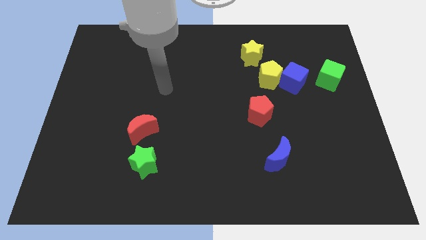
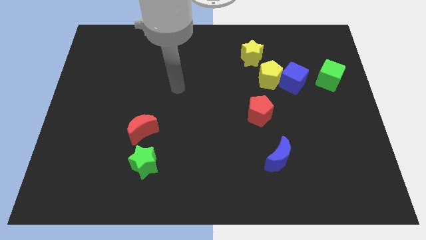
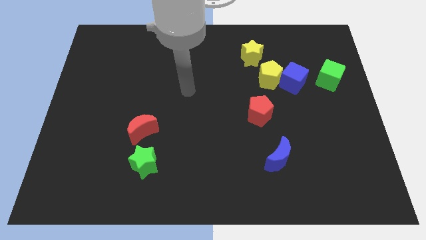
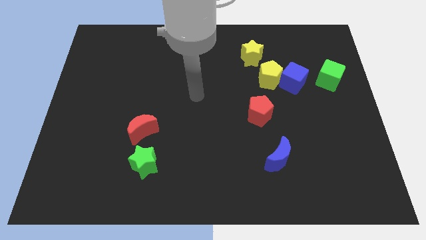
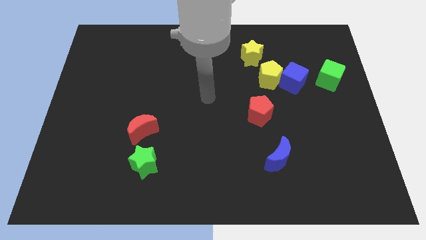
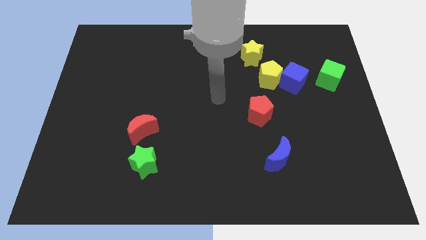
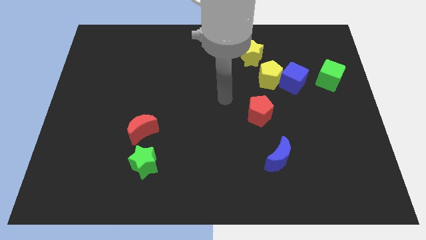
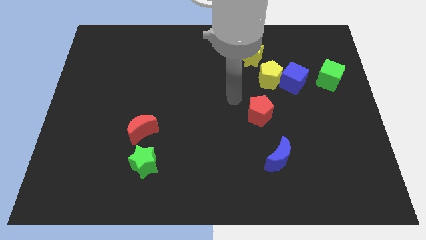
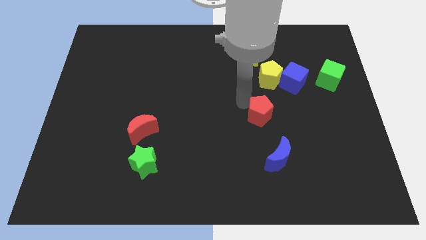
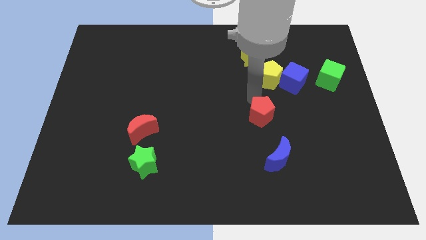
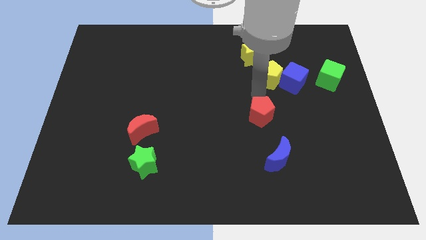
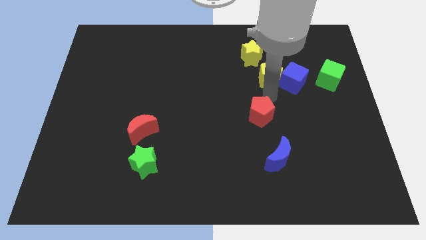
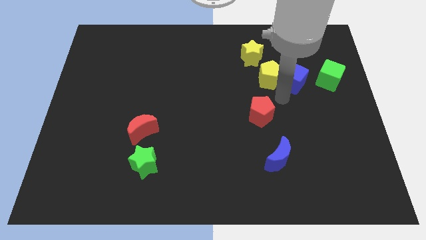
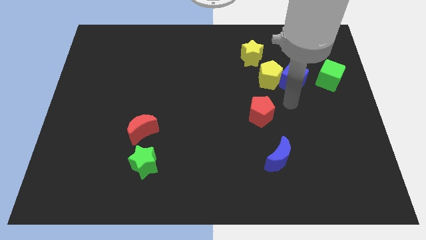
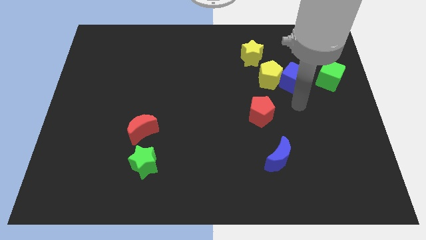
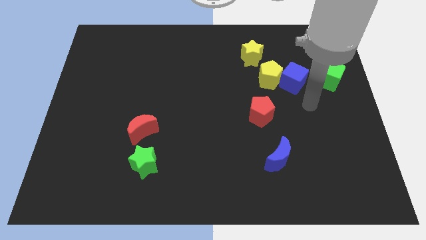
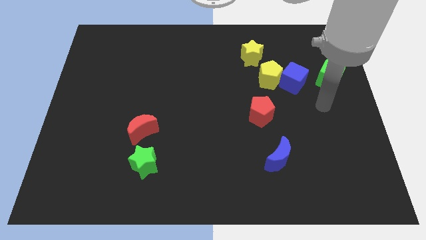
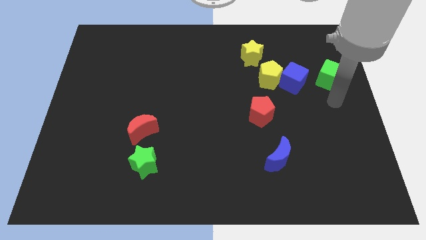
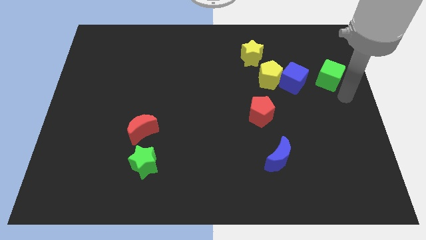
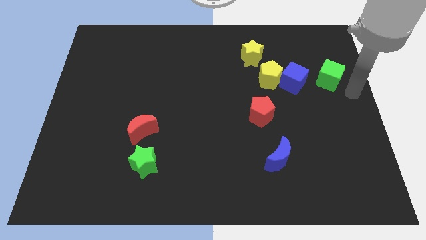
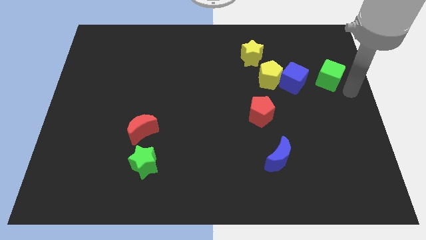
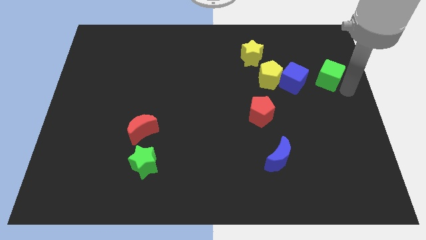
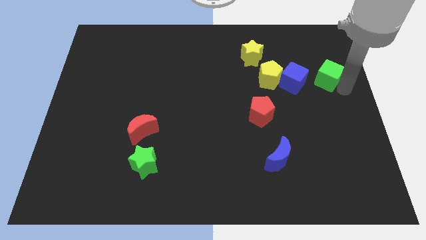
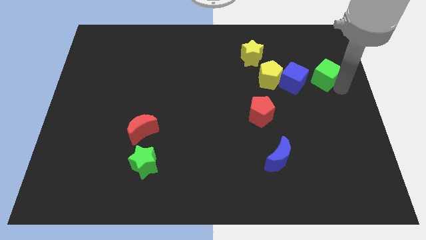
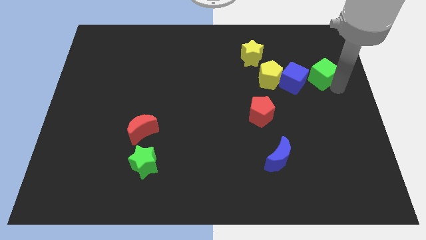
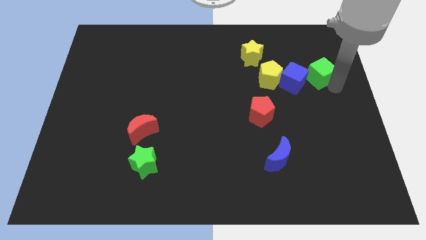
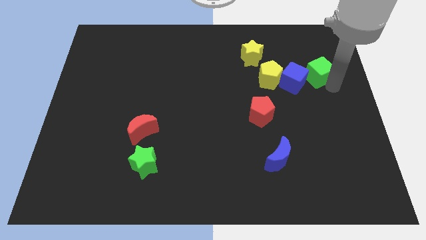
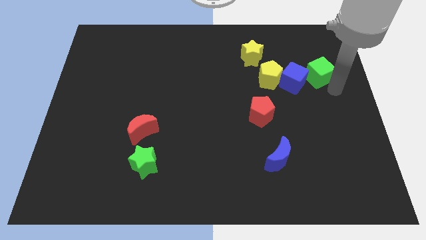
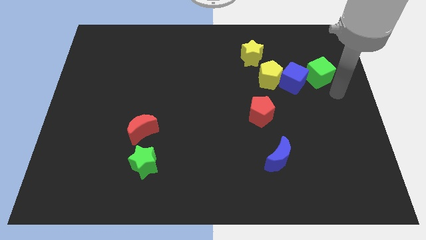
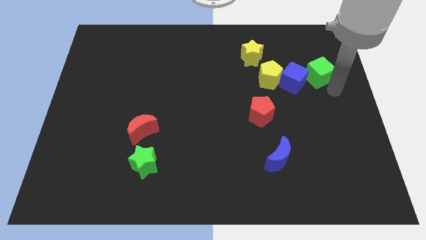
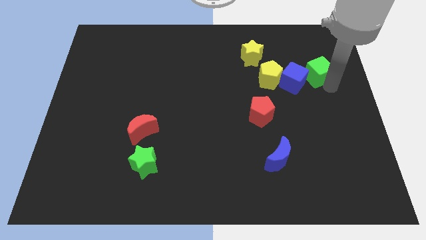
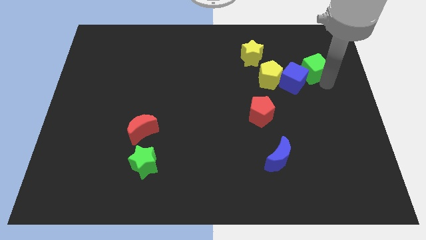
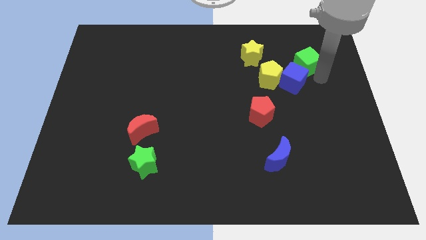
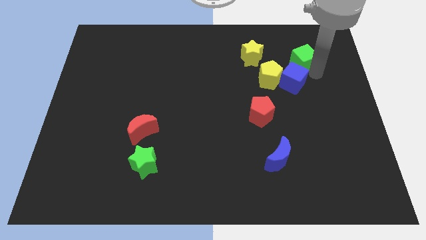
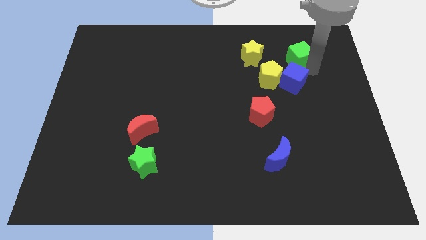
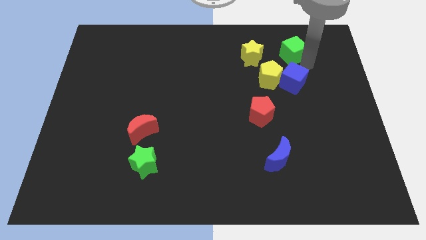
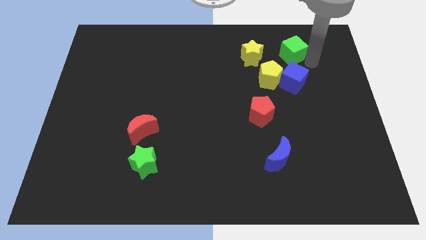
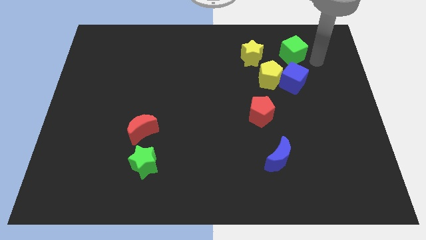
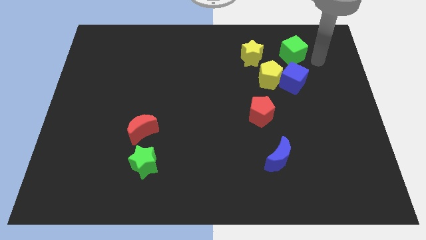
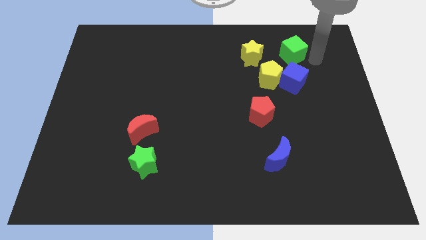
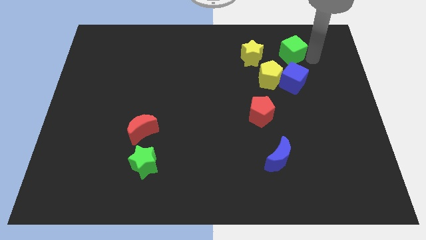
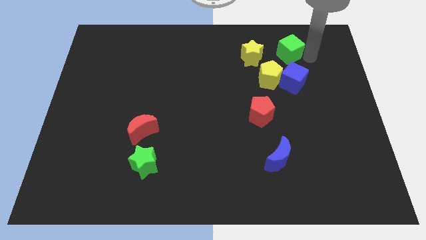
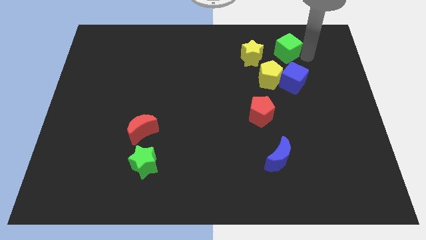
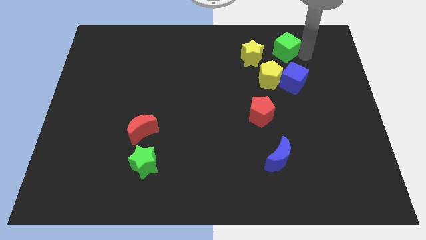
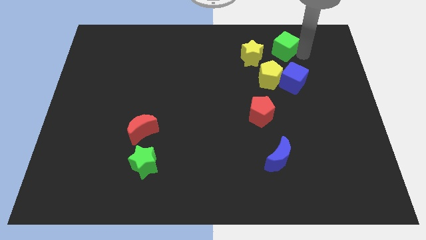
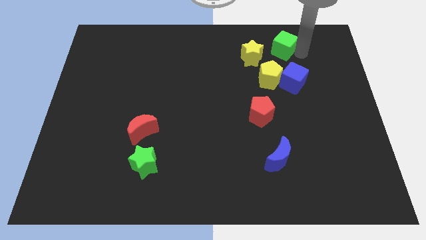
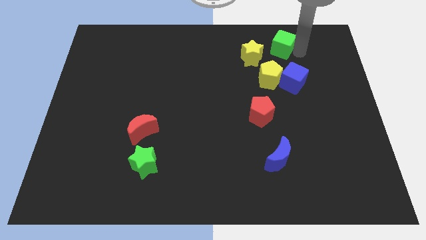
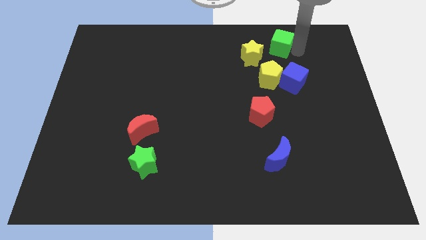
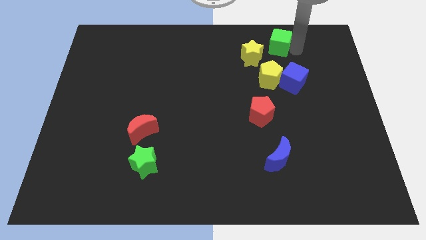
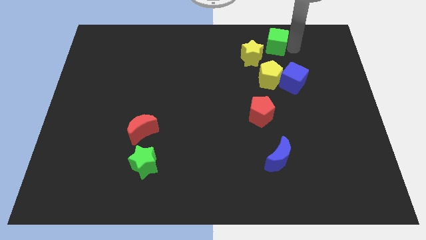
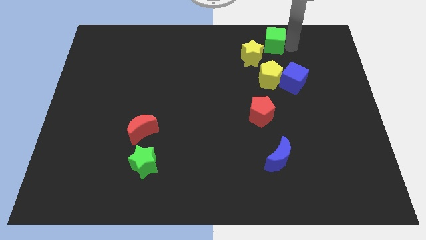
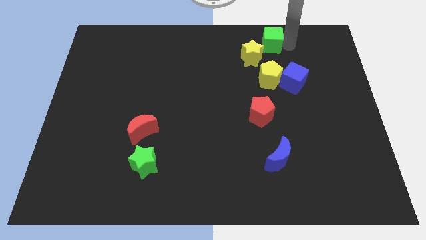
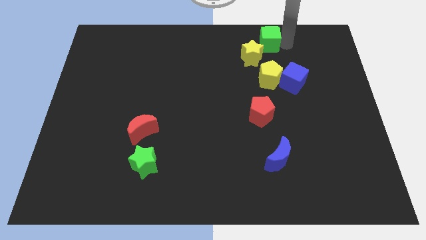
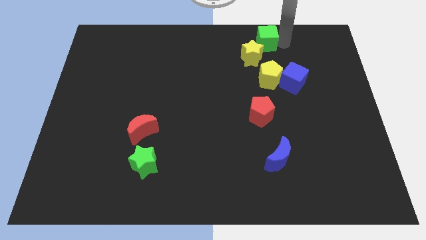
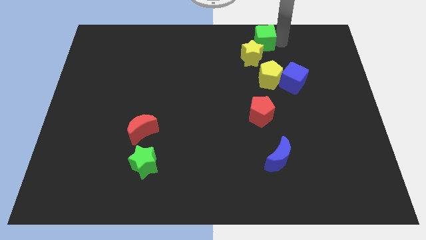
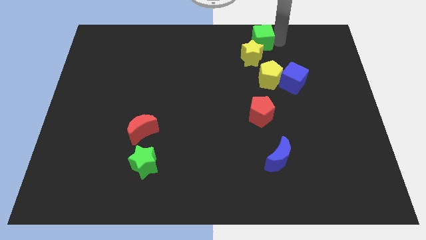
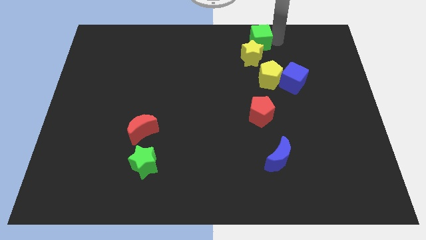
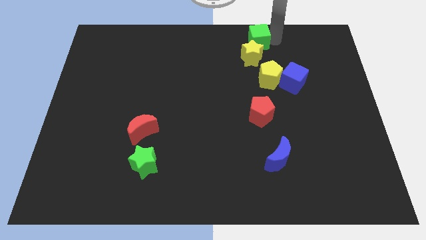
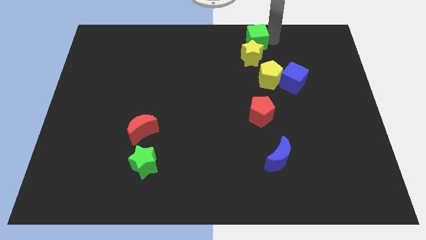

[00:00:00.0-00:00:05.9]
move the green cube to the top side
